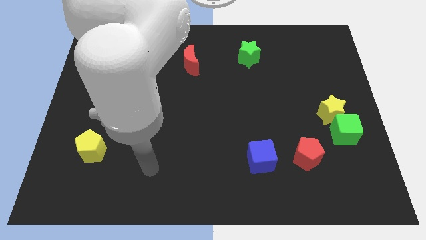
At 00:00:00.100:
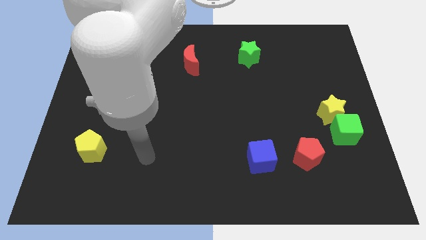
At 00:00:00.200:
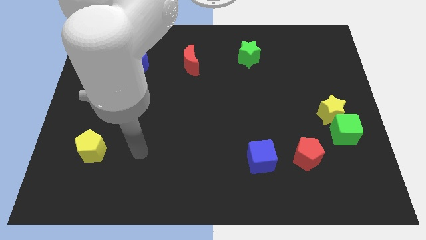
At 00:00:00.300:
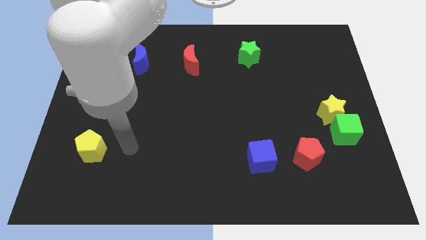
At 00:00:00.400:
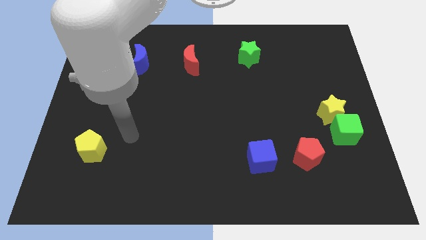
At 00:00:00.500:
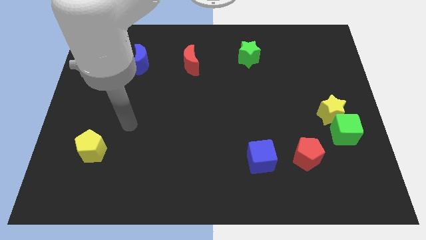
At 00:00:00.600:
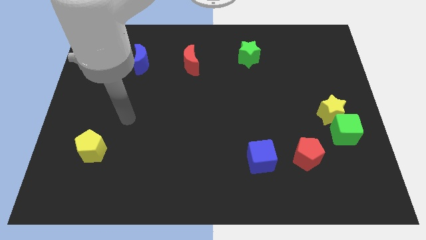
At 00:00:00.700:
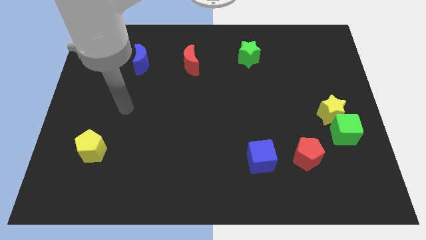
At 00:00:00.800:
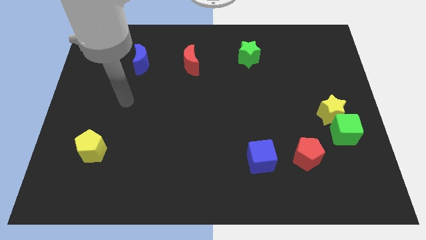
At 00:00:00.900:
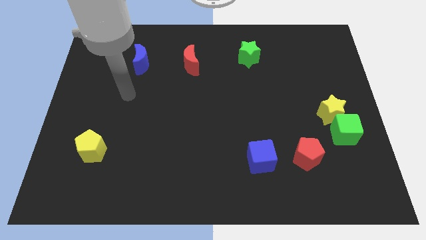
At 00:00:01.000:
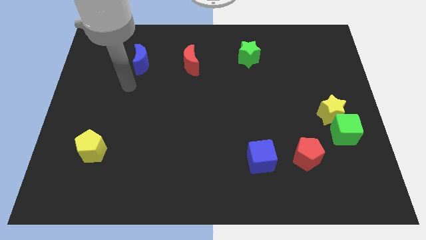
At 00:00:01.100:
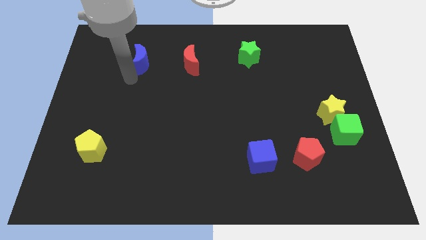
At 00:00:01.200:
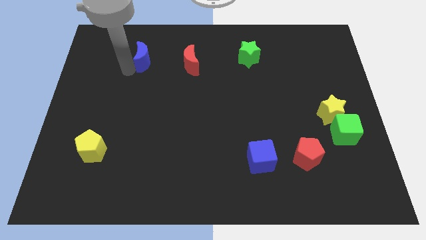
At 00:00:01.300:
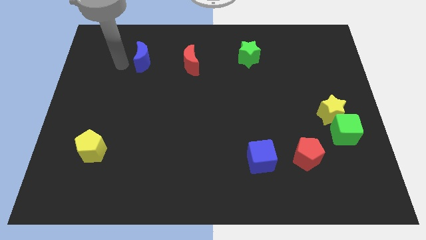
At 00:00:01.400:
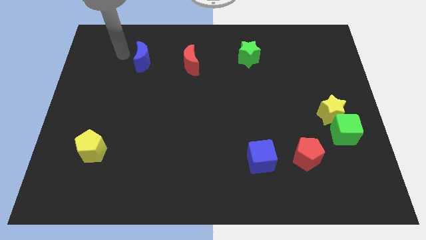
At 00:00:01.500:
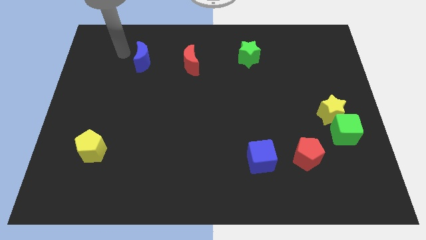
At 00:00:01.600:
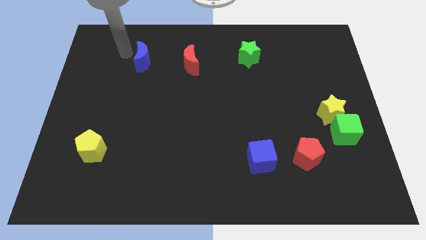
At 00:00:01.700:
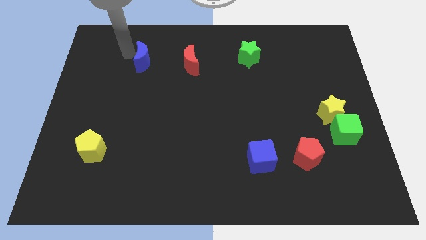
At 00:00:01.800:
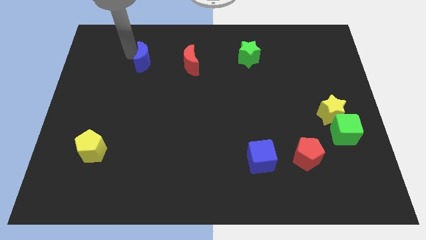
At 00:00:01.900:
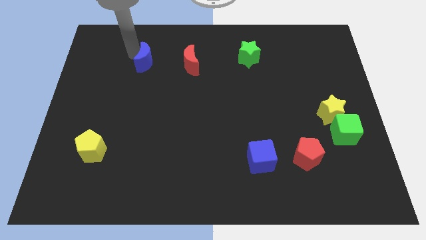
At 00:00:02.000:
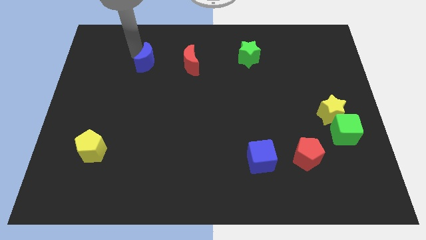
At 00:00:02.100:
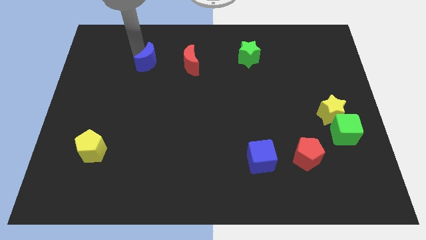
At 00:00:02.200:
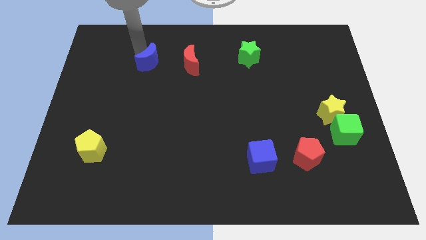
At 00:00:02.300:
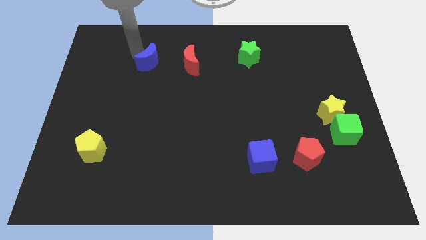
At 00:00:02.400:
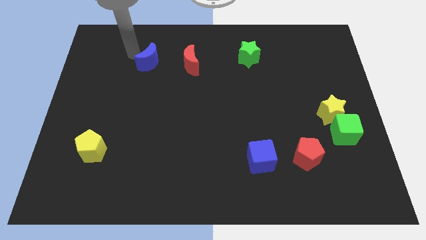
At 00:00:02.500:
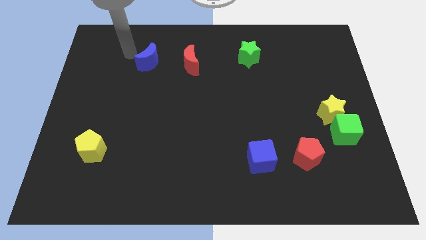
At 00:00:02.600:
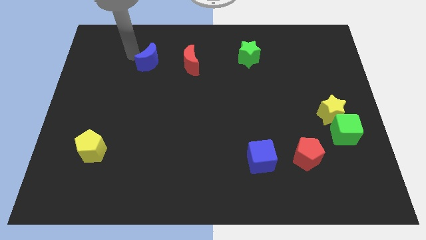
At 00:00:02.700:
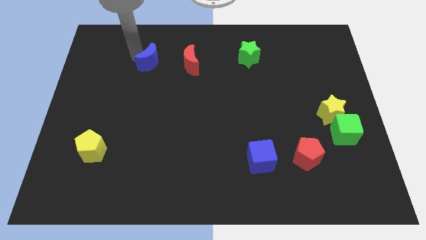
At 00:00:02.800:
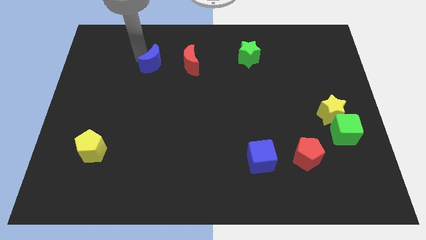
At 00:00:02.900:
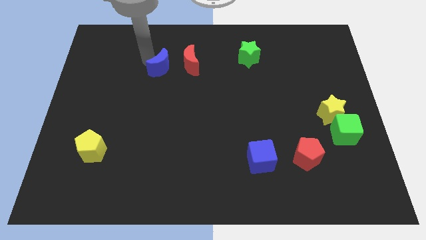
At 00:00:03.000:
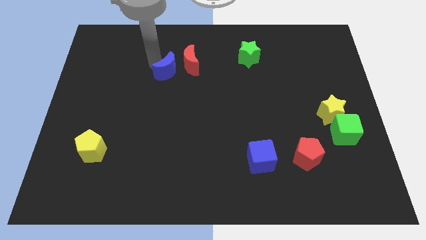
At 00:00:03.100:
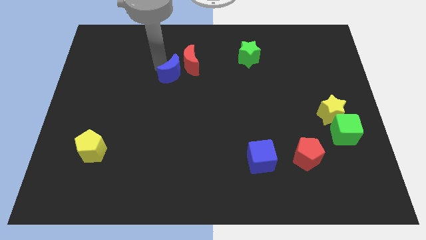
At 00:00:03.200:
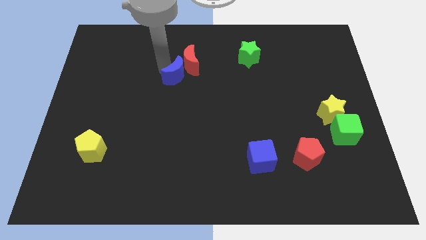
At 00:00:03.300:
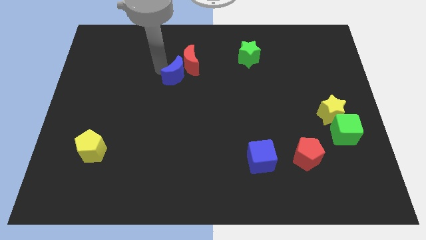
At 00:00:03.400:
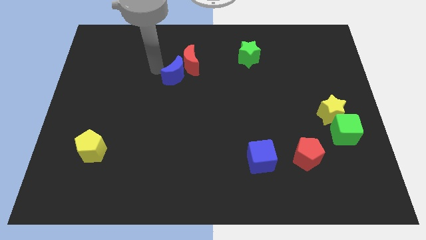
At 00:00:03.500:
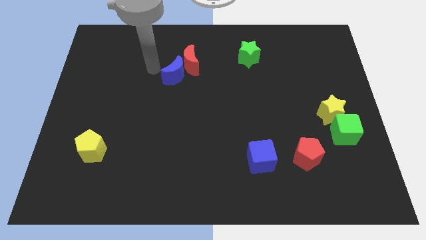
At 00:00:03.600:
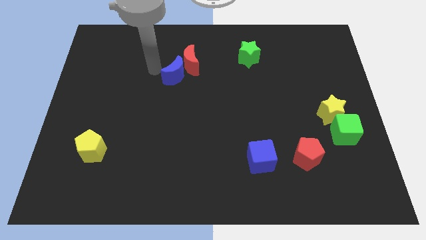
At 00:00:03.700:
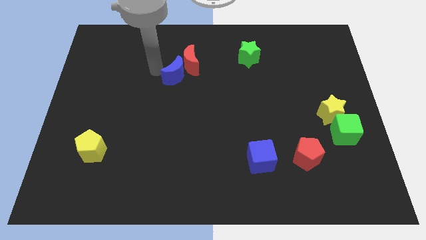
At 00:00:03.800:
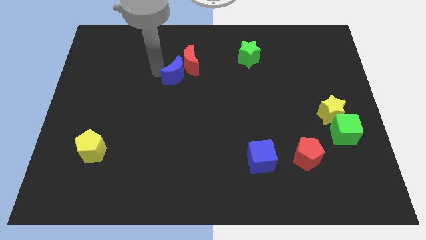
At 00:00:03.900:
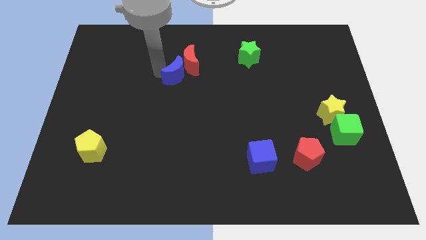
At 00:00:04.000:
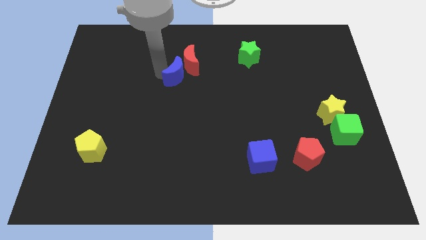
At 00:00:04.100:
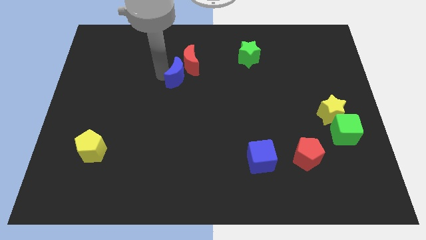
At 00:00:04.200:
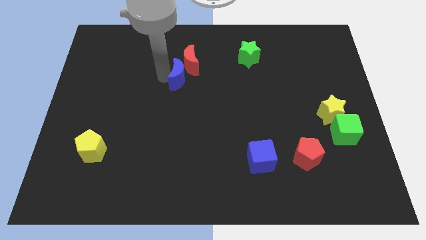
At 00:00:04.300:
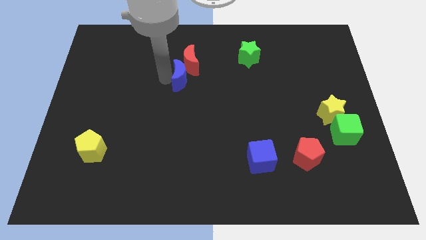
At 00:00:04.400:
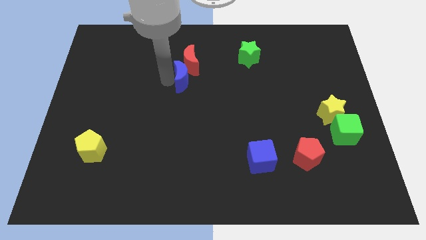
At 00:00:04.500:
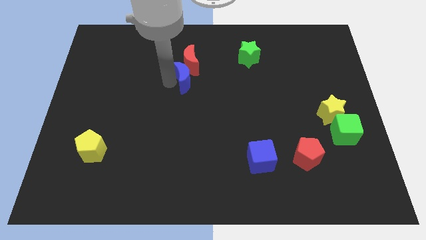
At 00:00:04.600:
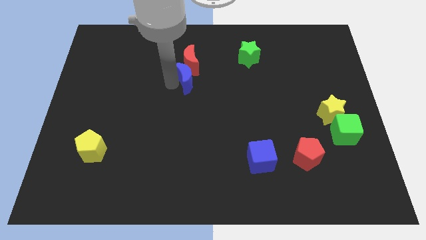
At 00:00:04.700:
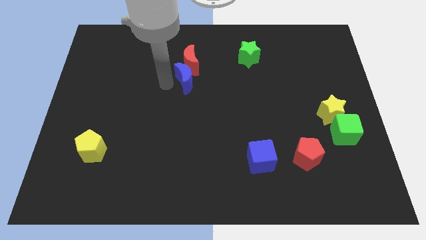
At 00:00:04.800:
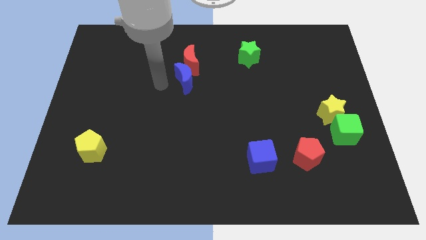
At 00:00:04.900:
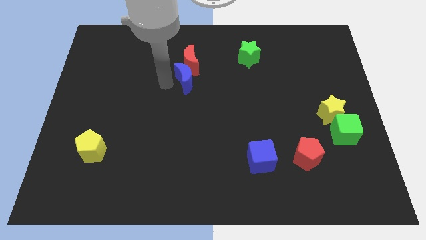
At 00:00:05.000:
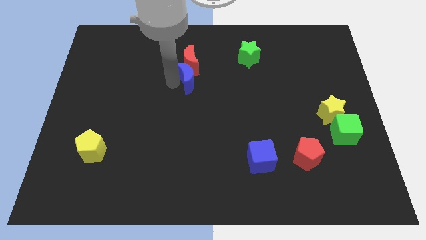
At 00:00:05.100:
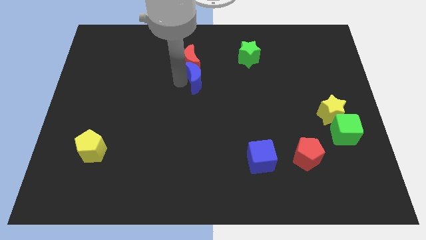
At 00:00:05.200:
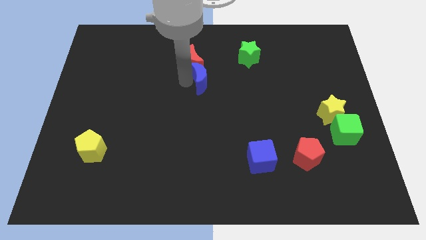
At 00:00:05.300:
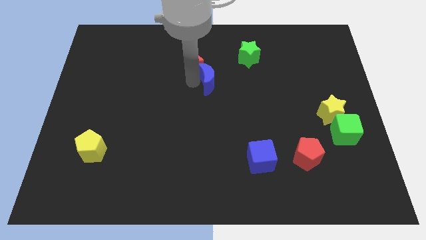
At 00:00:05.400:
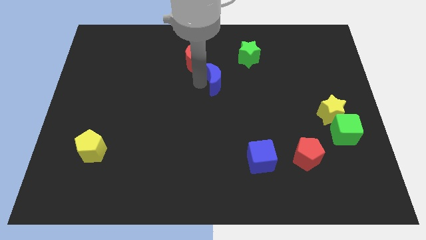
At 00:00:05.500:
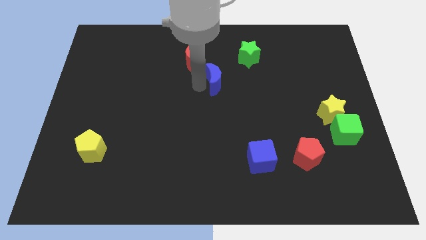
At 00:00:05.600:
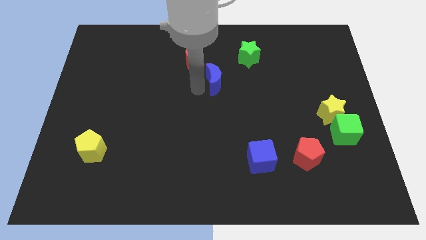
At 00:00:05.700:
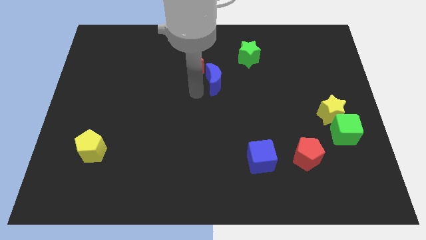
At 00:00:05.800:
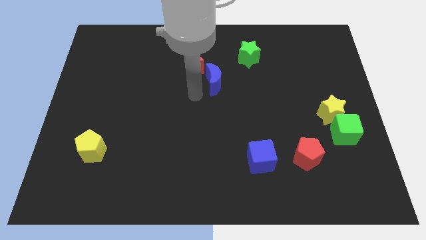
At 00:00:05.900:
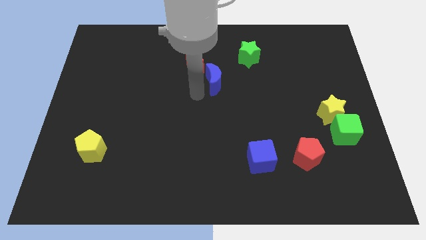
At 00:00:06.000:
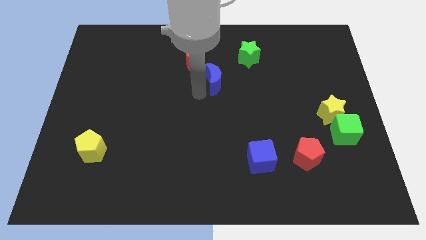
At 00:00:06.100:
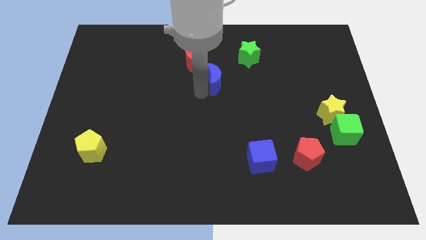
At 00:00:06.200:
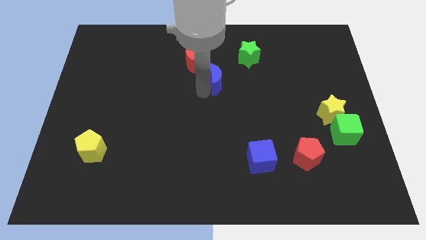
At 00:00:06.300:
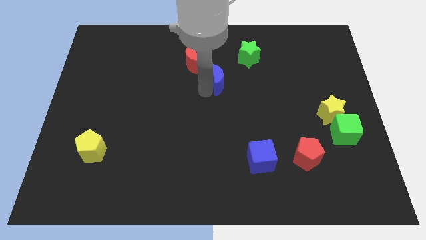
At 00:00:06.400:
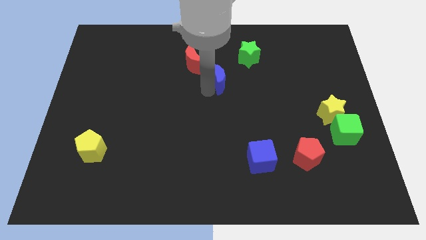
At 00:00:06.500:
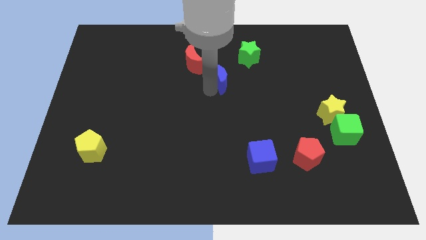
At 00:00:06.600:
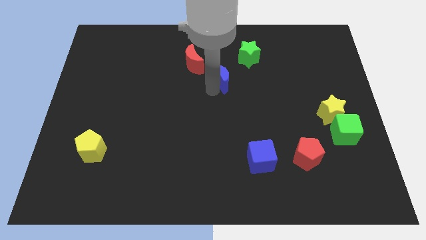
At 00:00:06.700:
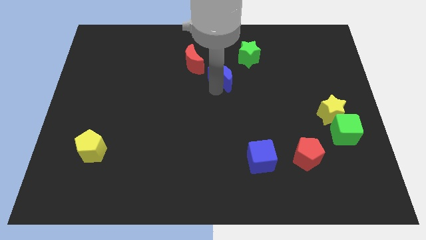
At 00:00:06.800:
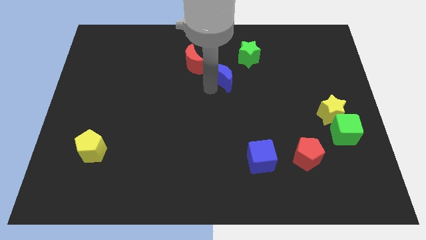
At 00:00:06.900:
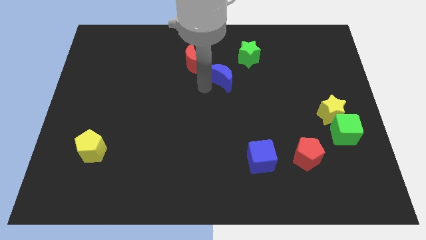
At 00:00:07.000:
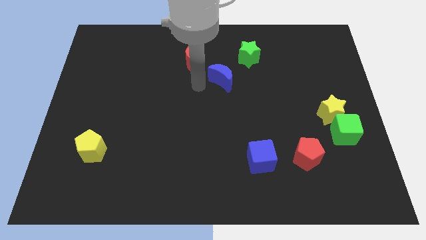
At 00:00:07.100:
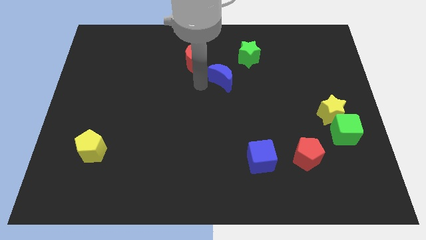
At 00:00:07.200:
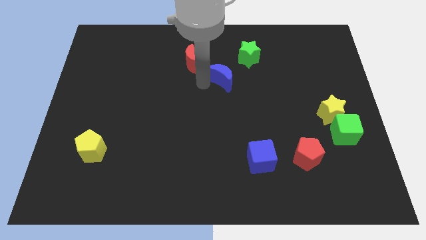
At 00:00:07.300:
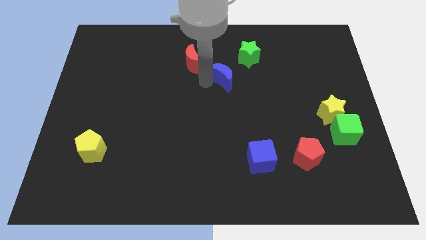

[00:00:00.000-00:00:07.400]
move the blue moon to the right

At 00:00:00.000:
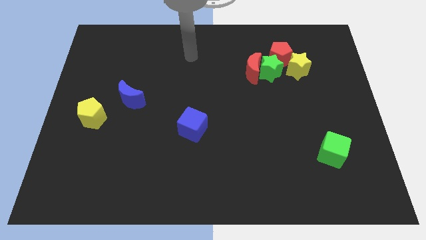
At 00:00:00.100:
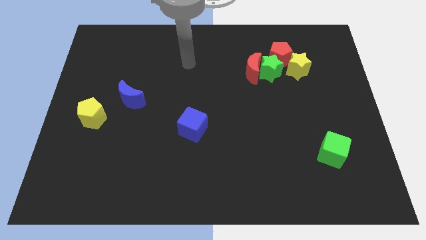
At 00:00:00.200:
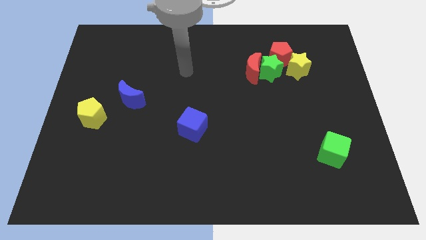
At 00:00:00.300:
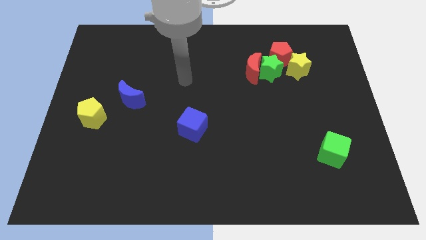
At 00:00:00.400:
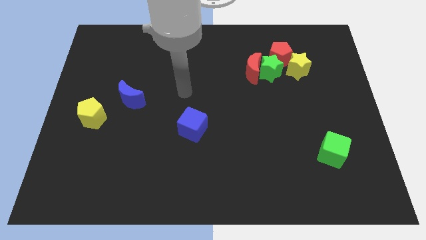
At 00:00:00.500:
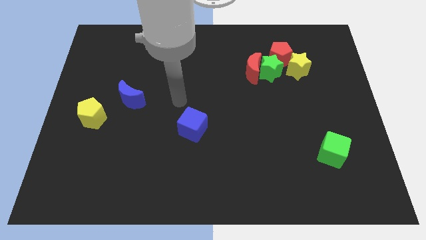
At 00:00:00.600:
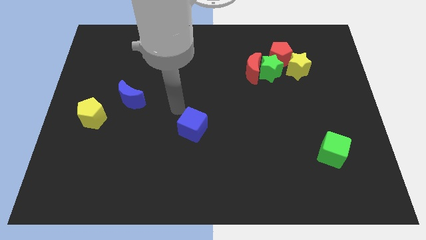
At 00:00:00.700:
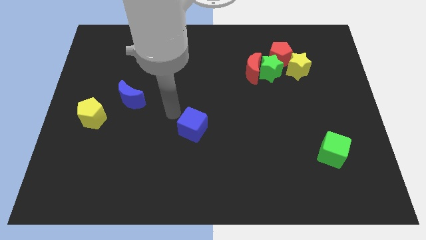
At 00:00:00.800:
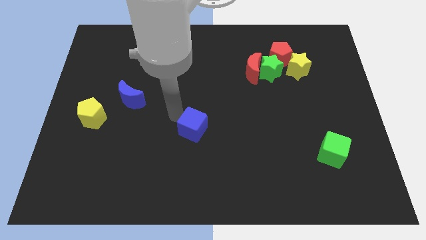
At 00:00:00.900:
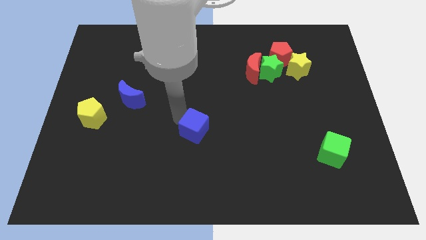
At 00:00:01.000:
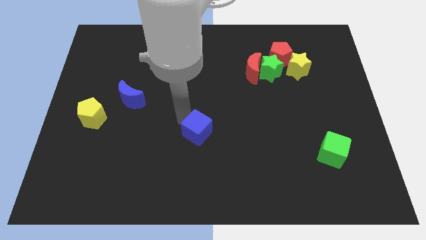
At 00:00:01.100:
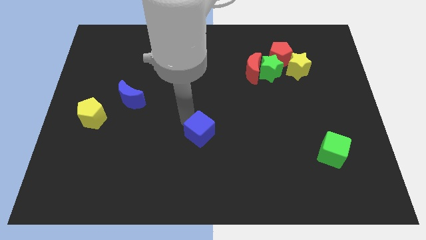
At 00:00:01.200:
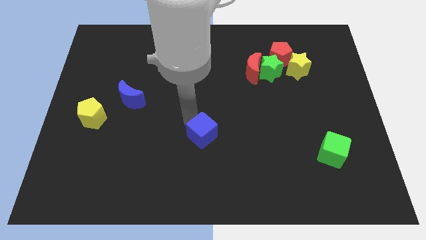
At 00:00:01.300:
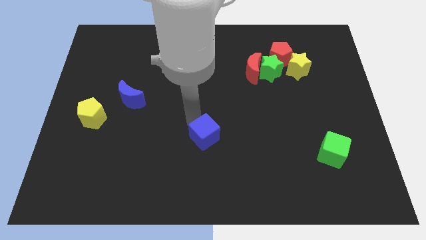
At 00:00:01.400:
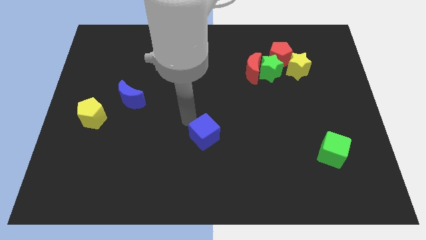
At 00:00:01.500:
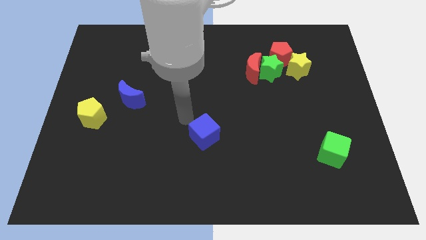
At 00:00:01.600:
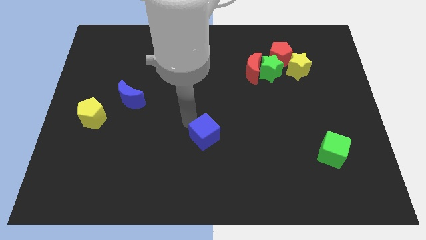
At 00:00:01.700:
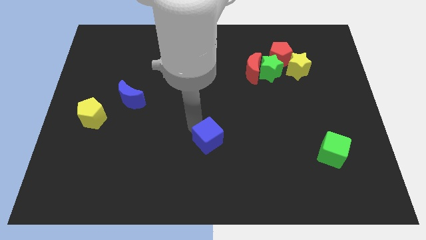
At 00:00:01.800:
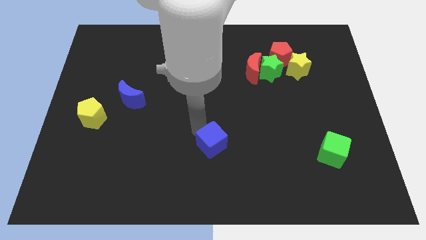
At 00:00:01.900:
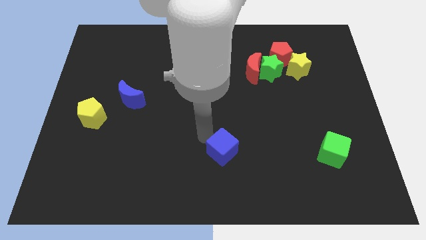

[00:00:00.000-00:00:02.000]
slightly move the blue cube down and to the right
